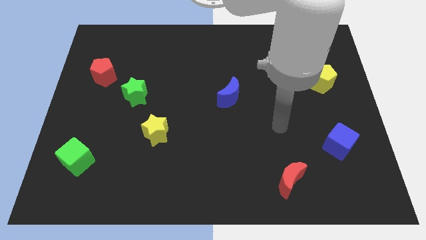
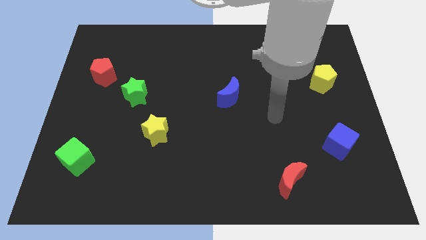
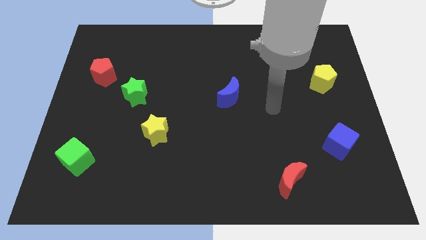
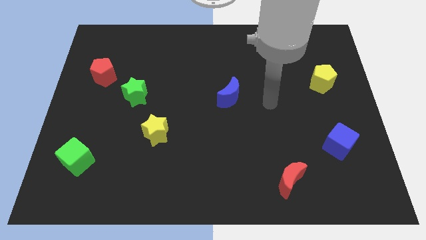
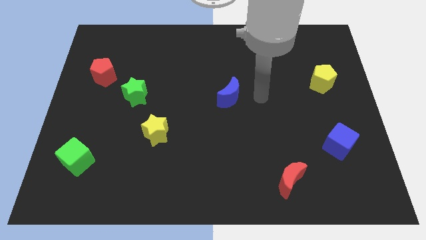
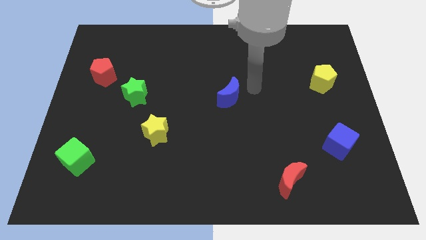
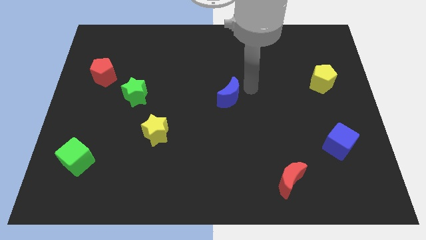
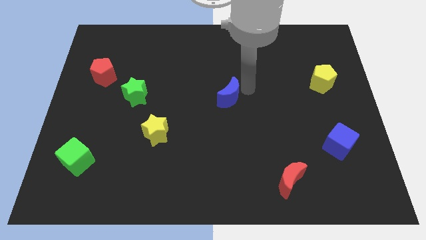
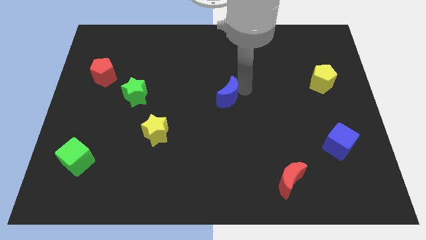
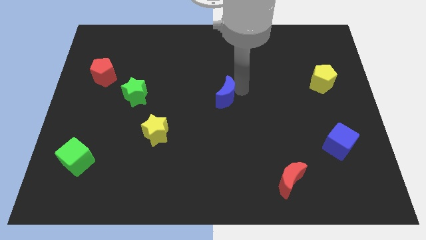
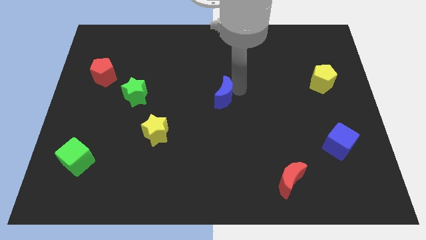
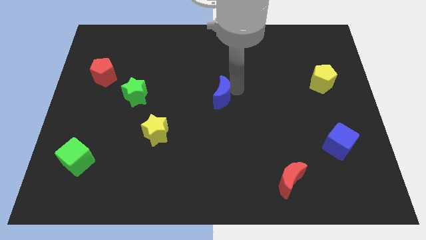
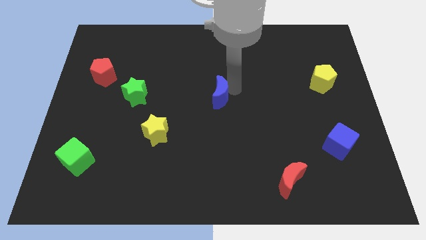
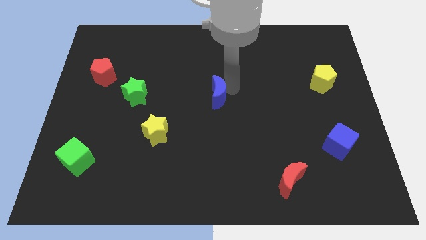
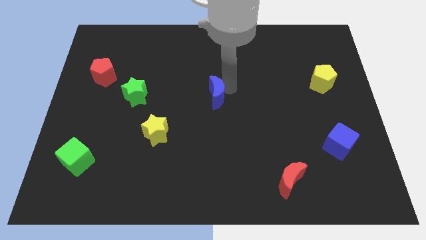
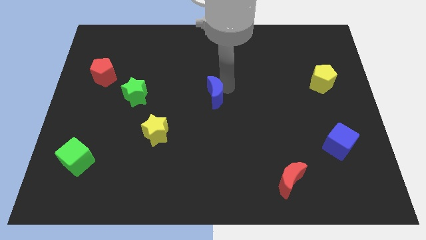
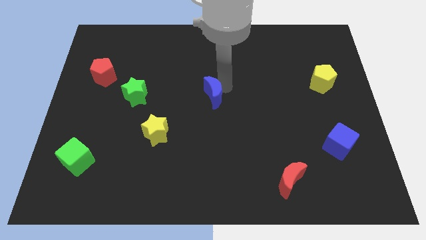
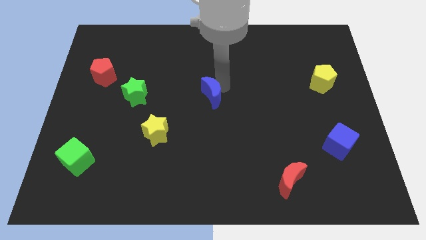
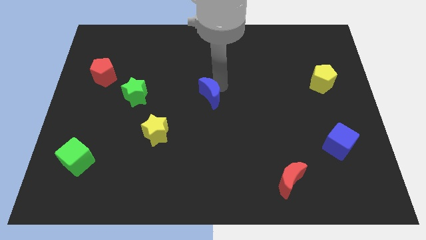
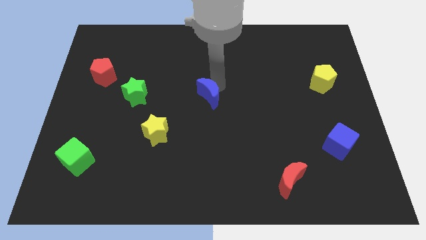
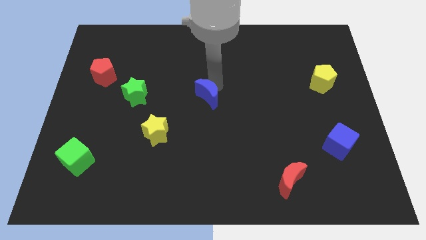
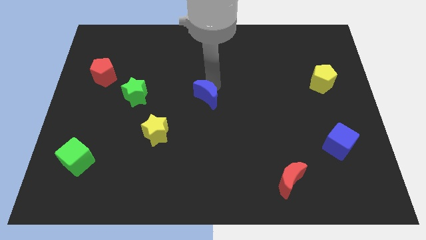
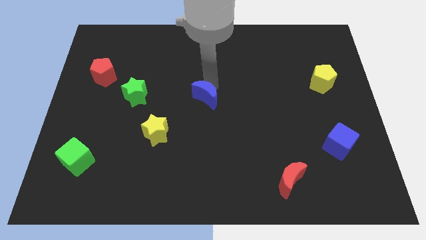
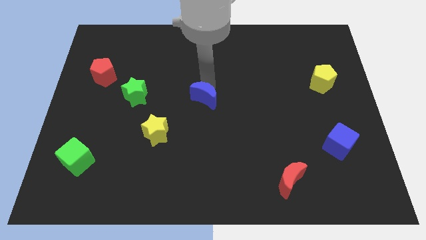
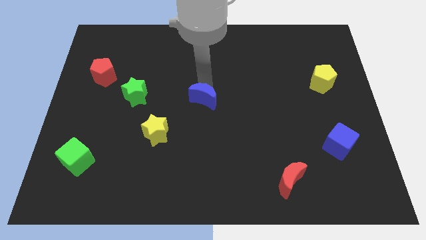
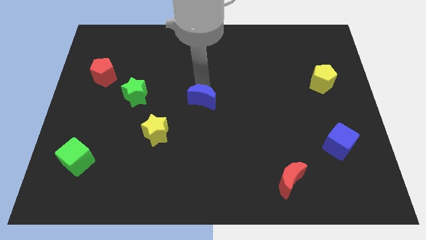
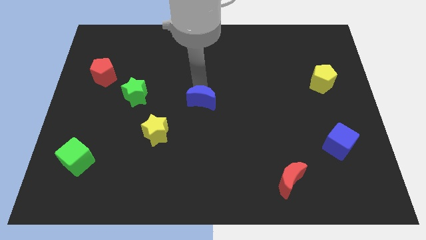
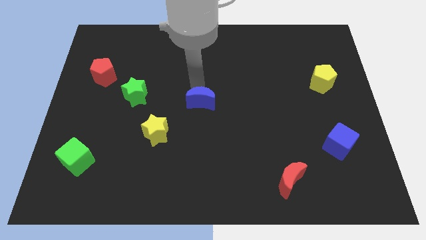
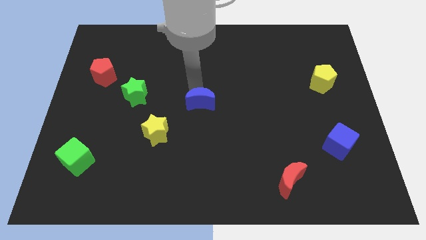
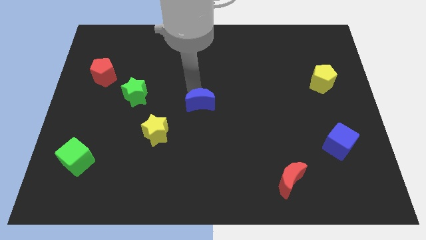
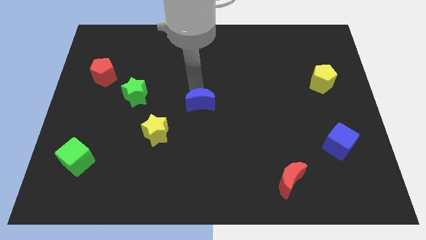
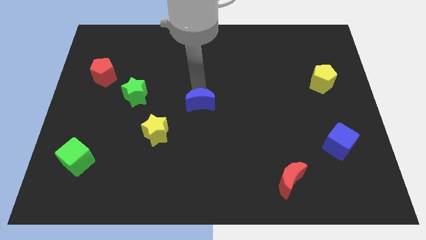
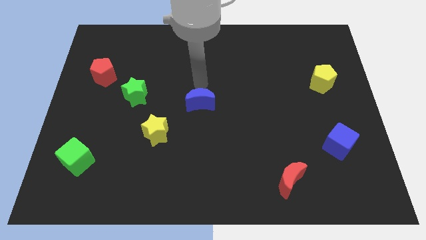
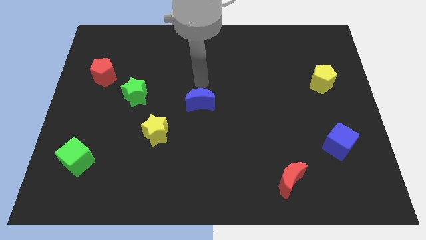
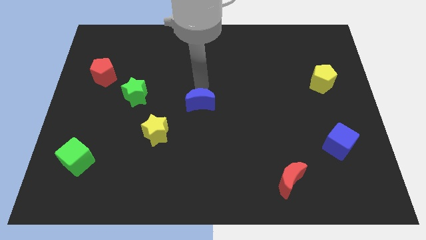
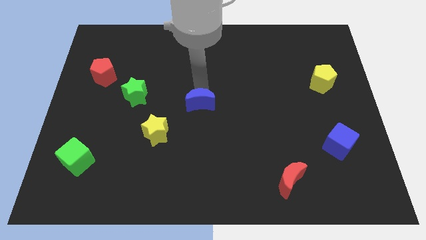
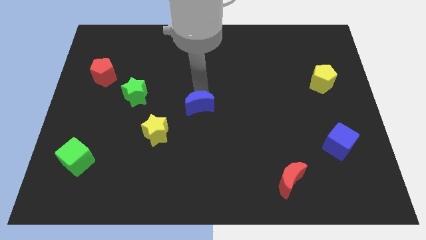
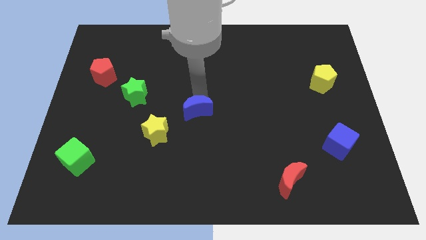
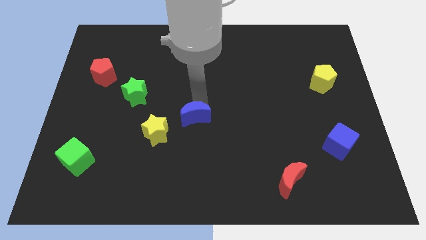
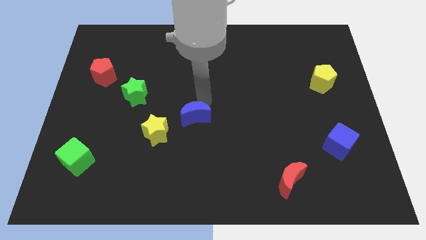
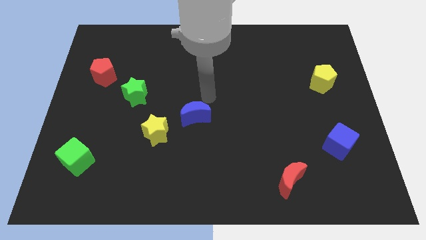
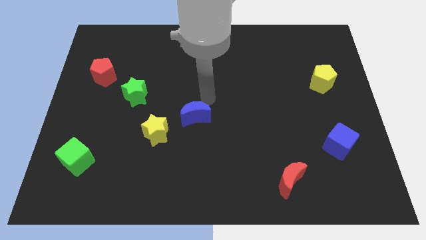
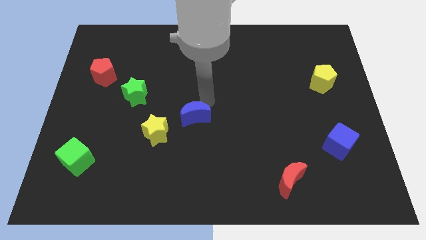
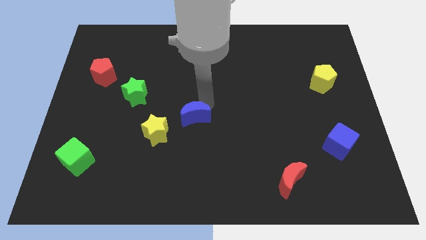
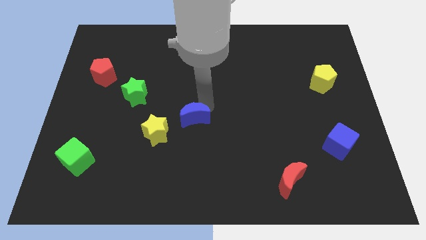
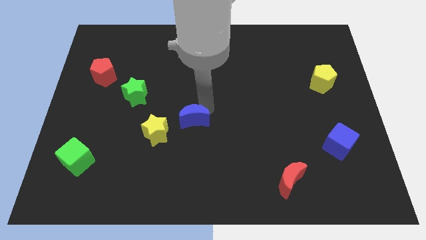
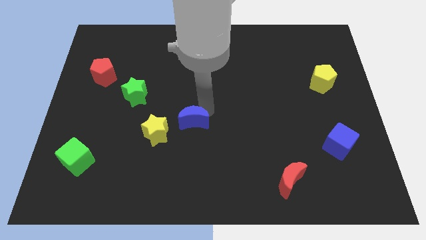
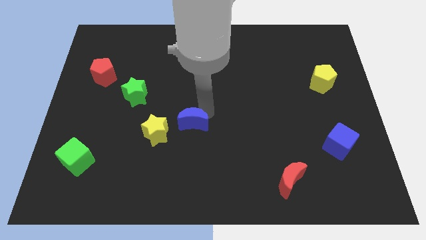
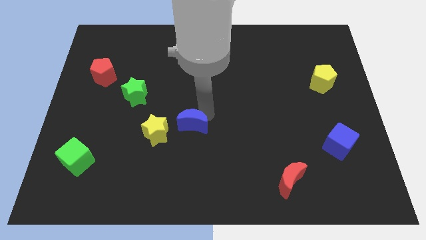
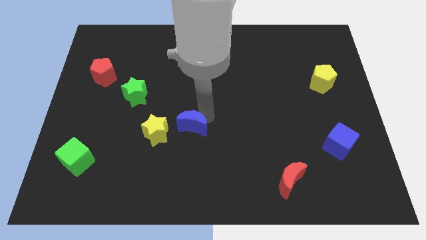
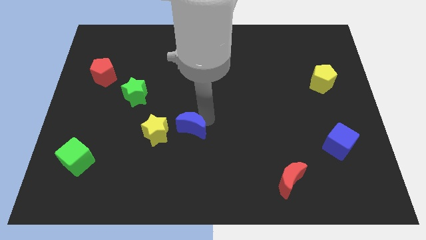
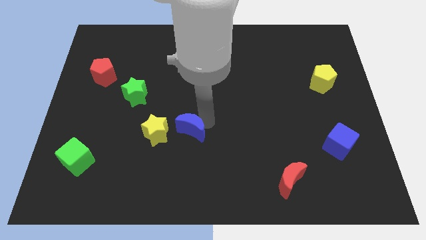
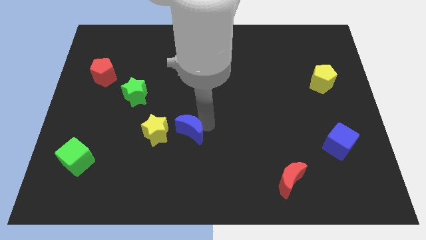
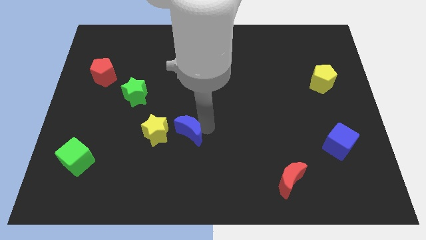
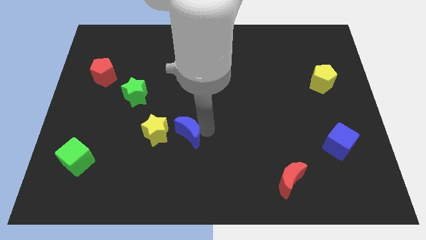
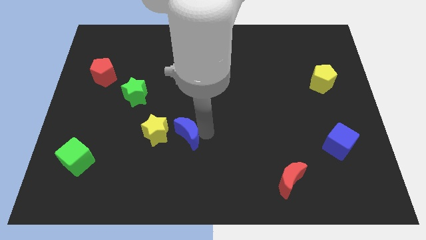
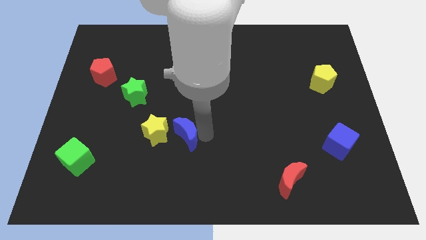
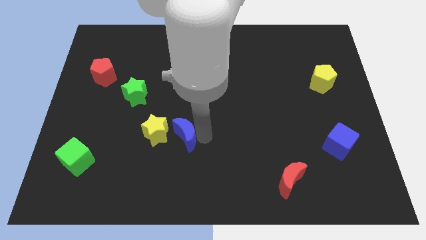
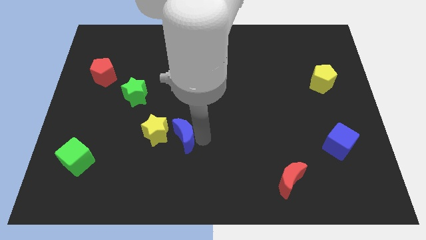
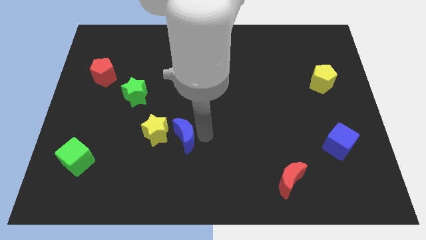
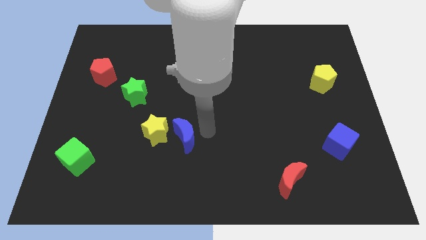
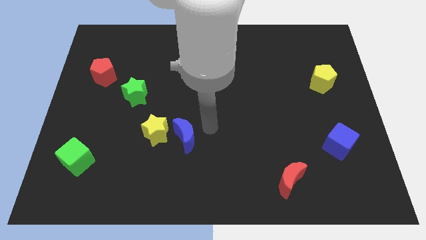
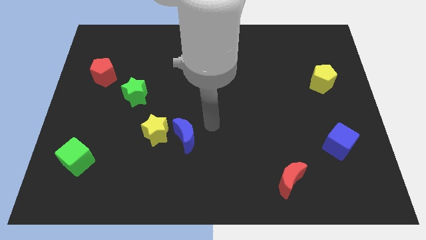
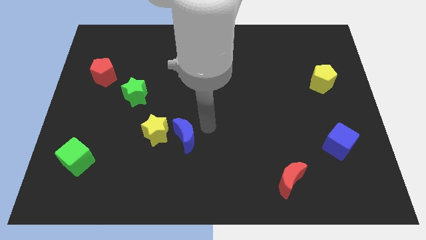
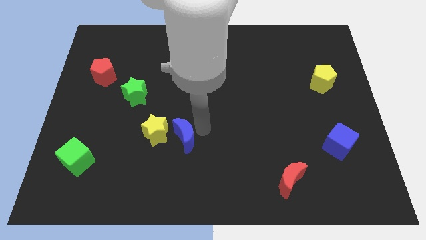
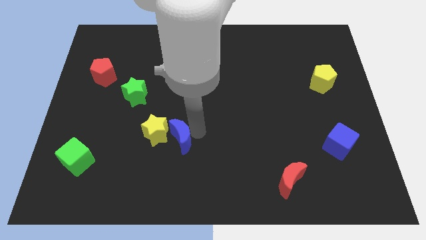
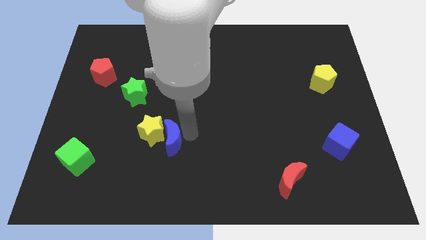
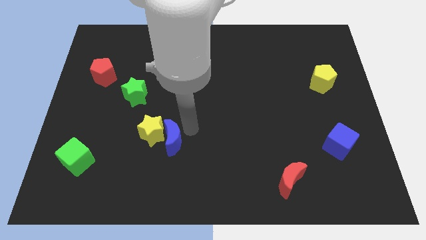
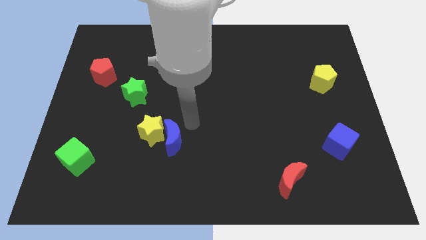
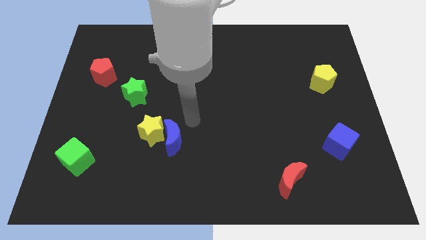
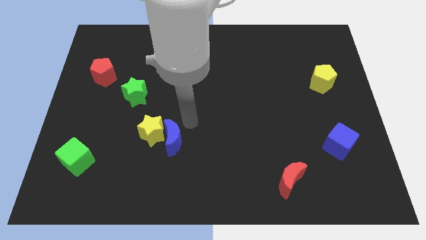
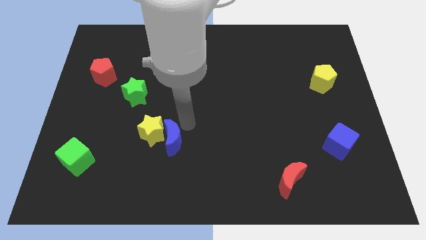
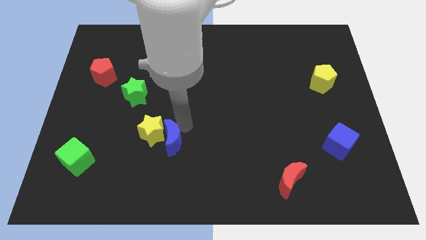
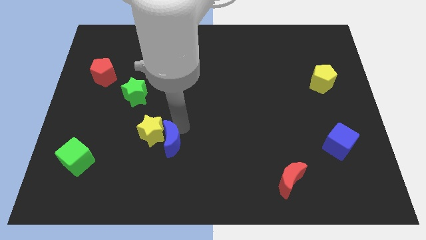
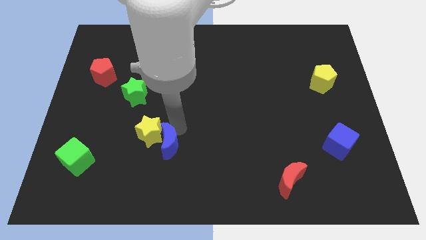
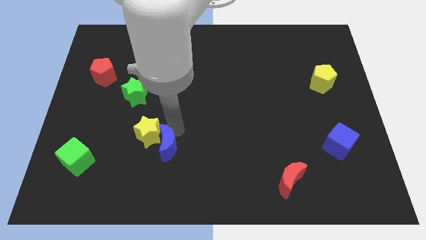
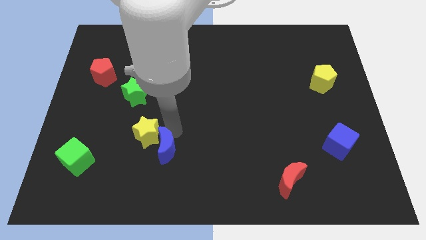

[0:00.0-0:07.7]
push the blue moon downwards and left diagonally

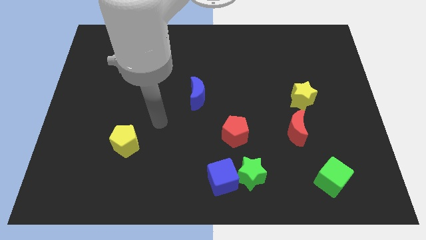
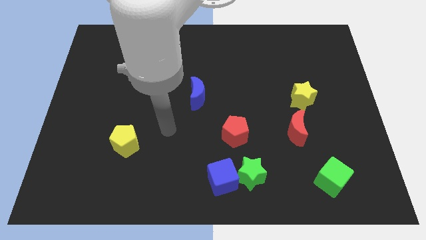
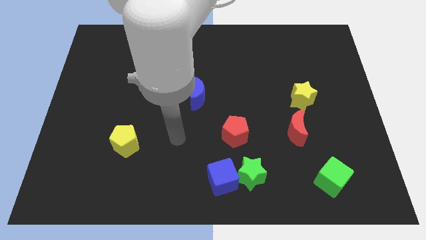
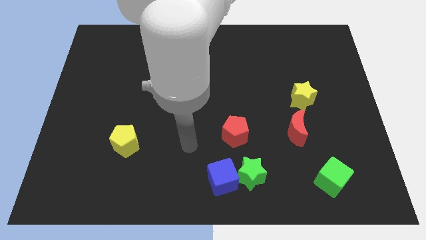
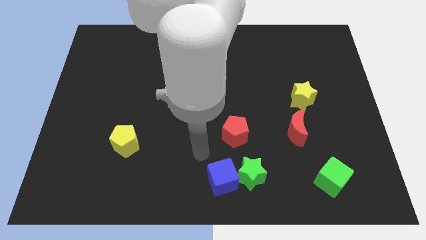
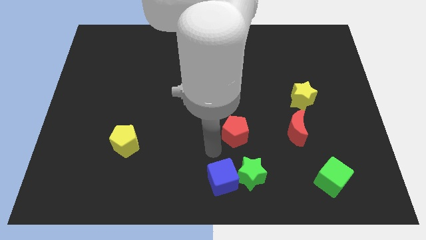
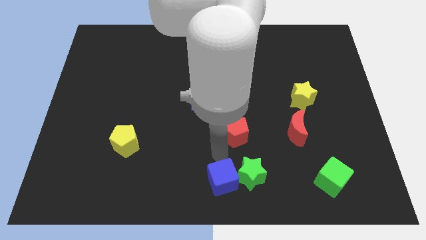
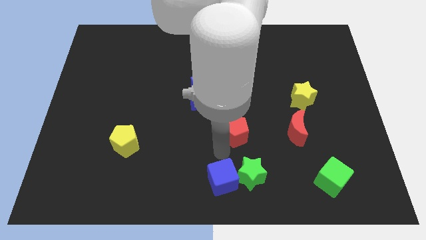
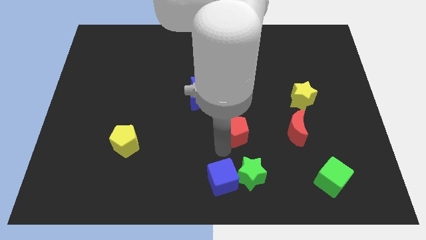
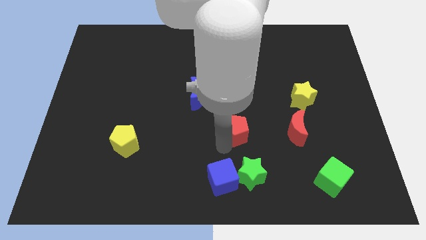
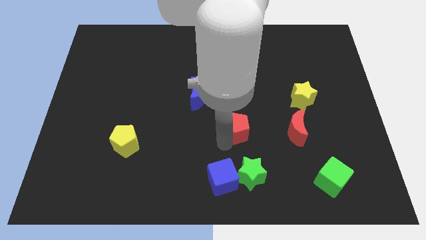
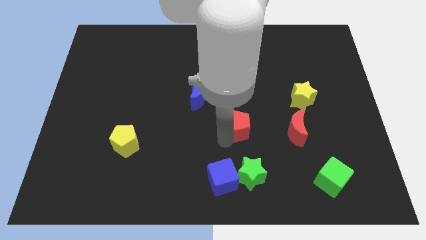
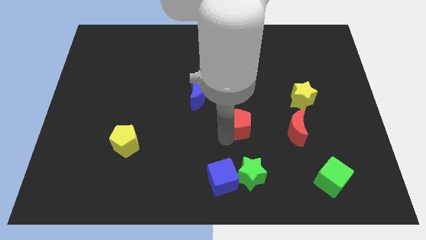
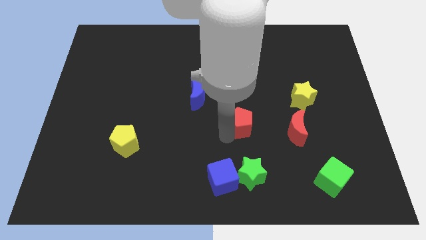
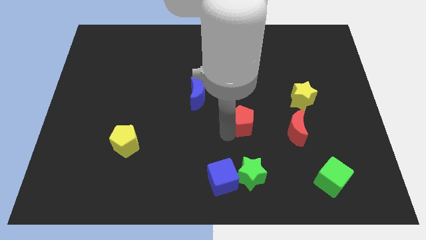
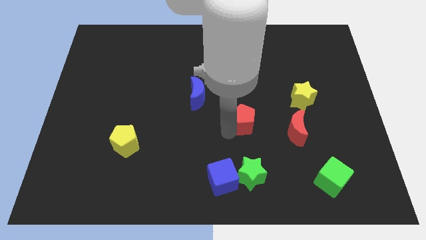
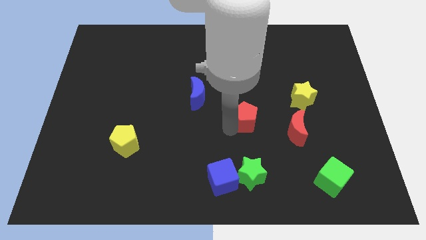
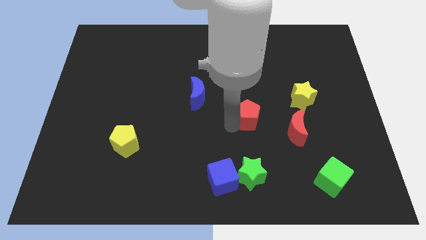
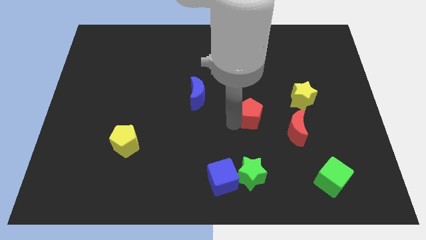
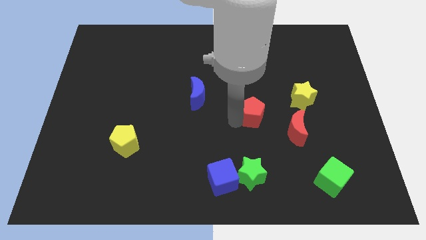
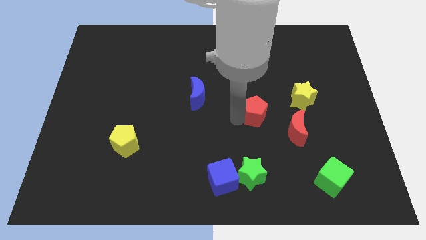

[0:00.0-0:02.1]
slightly slide the red pentagon up and then to the right
